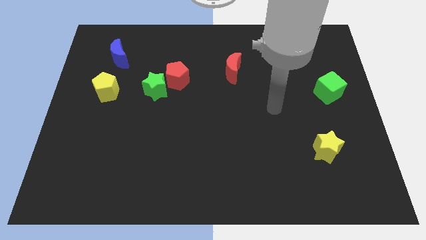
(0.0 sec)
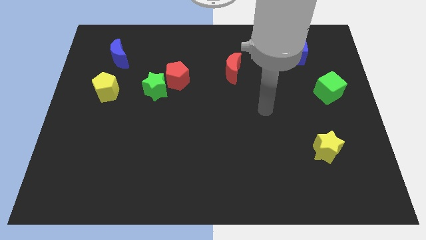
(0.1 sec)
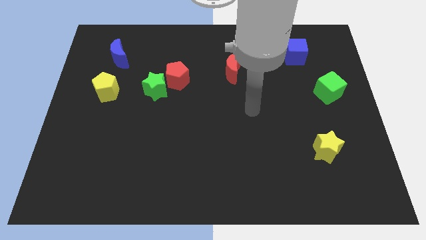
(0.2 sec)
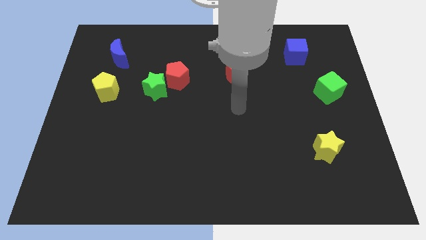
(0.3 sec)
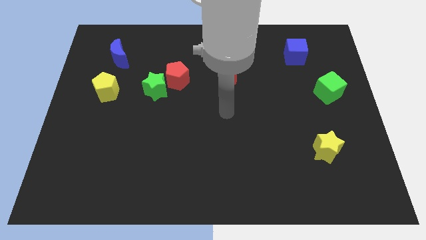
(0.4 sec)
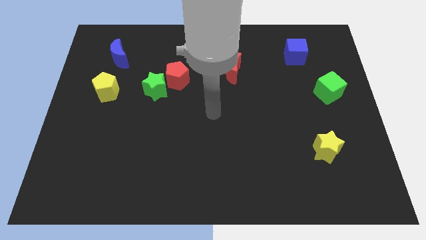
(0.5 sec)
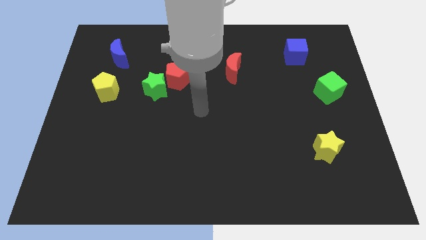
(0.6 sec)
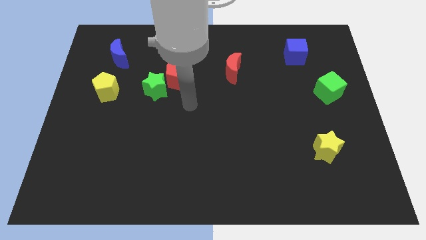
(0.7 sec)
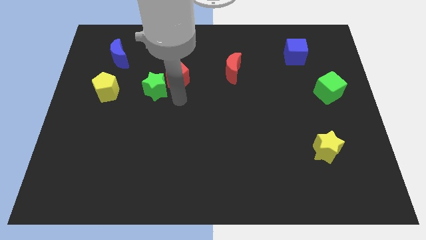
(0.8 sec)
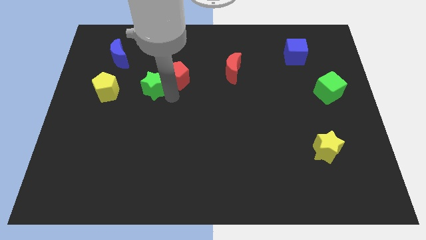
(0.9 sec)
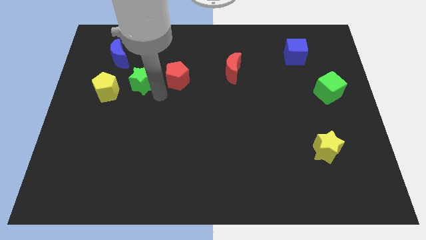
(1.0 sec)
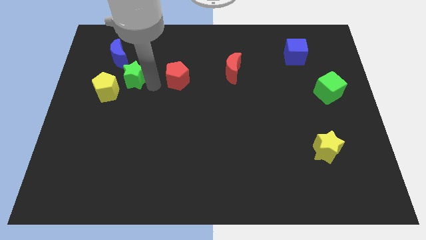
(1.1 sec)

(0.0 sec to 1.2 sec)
separate the red pentagon from the green star

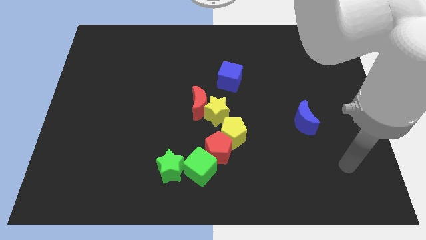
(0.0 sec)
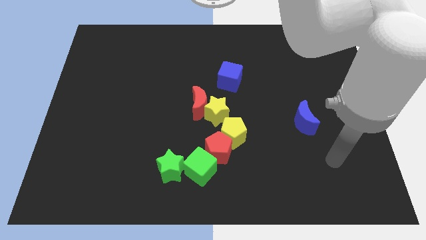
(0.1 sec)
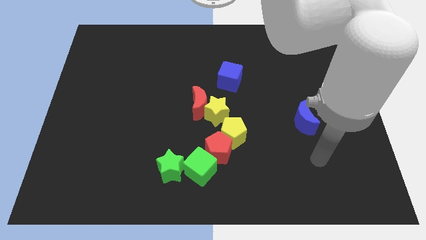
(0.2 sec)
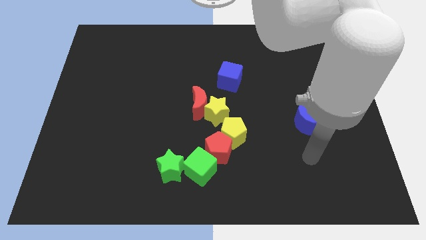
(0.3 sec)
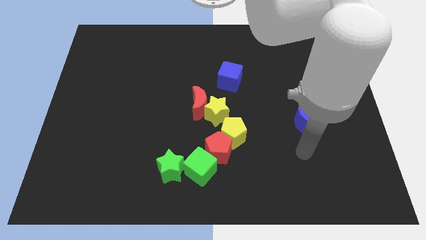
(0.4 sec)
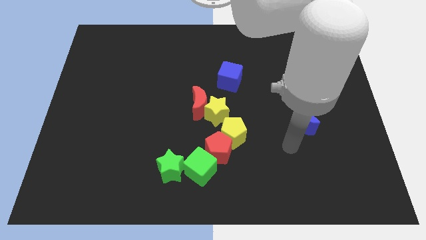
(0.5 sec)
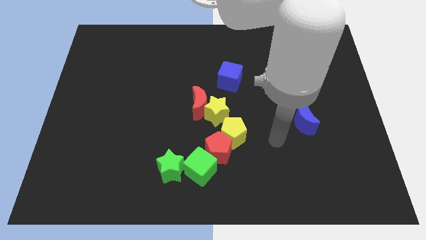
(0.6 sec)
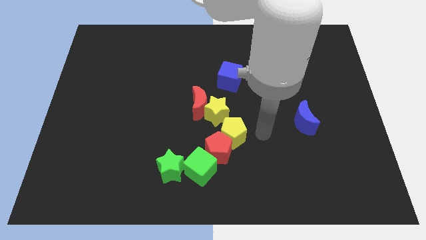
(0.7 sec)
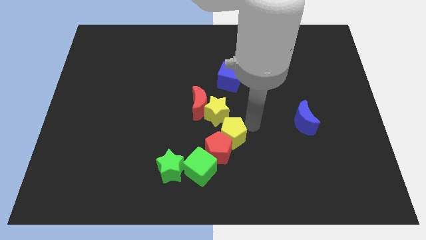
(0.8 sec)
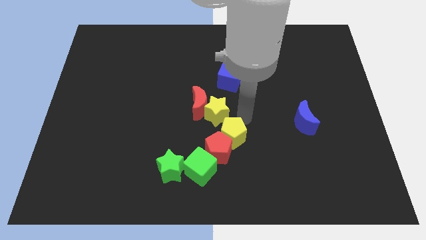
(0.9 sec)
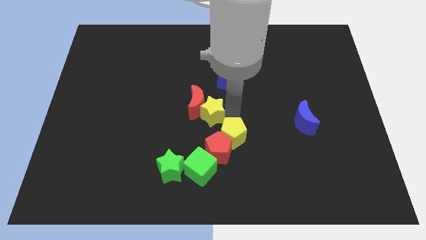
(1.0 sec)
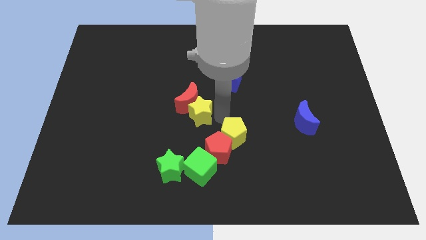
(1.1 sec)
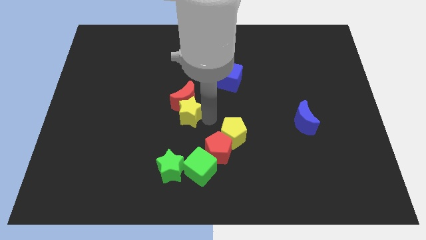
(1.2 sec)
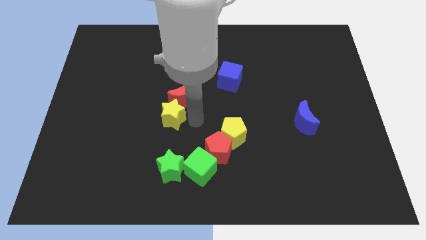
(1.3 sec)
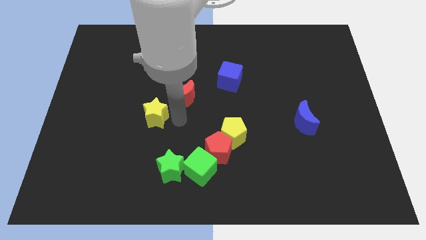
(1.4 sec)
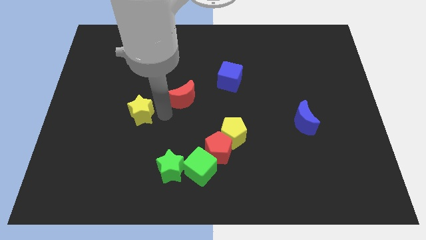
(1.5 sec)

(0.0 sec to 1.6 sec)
separate the red moon from the yellow star

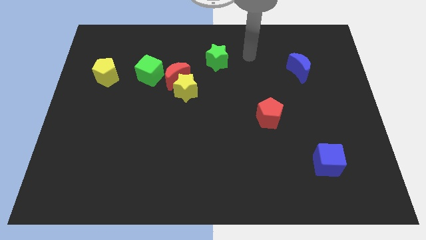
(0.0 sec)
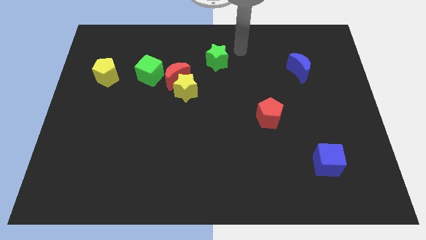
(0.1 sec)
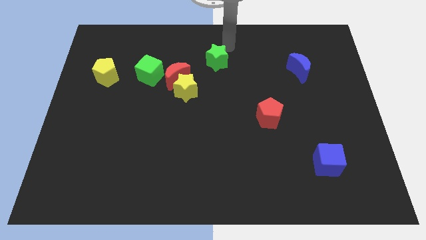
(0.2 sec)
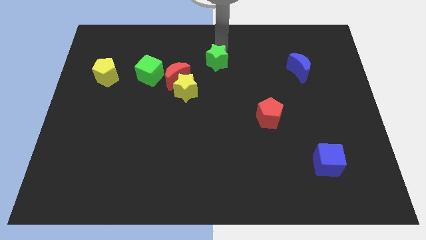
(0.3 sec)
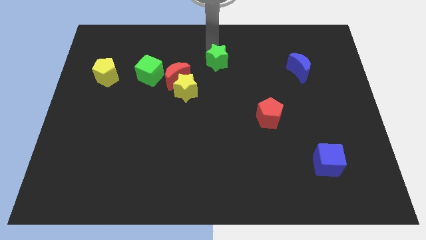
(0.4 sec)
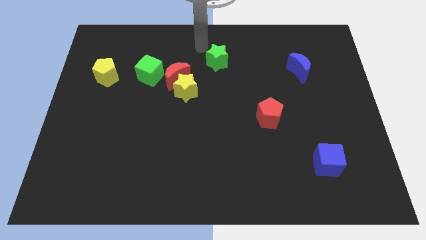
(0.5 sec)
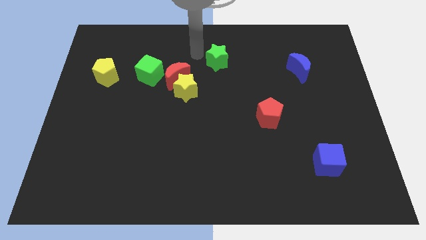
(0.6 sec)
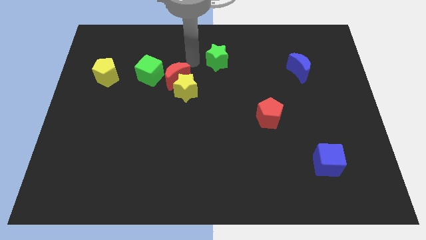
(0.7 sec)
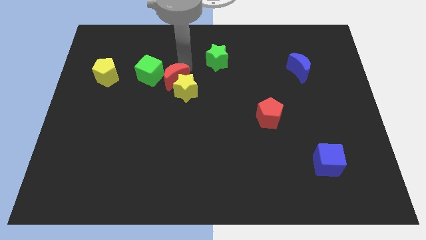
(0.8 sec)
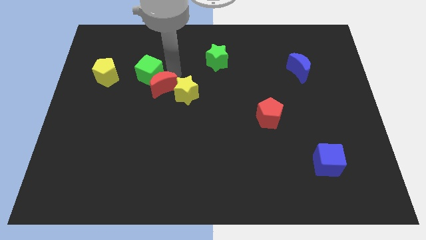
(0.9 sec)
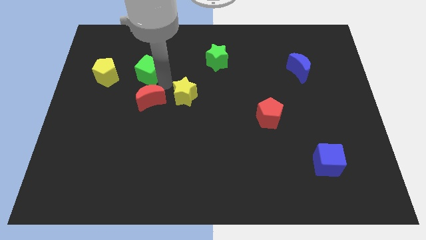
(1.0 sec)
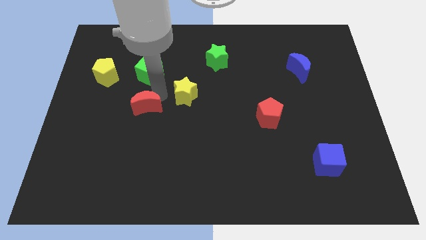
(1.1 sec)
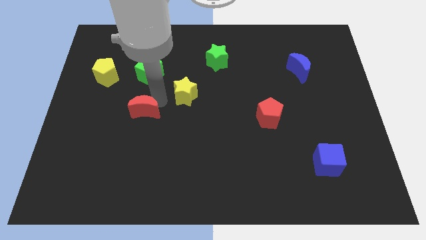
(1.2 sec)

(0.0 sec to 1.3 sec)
separate the yellow star from the red moon

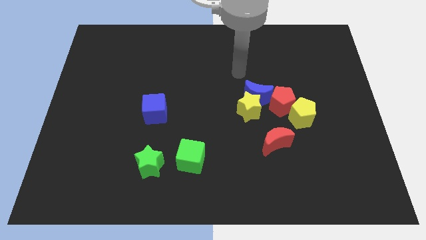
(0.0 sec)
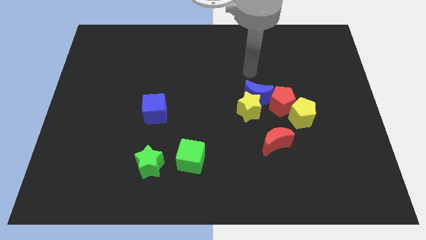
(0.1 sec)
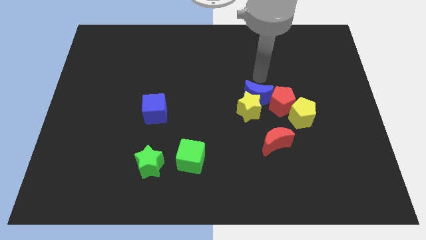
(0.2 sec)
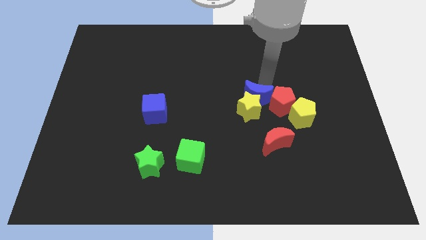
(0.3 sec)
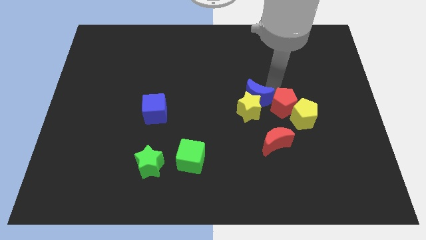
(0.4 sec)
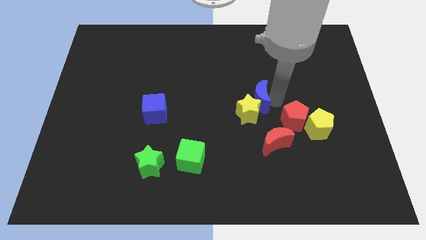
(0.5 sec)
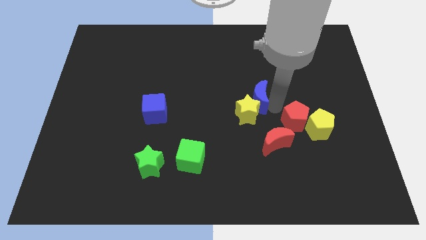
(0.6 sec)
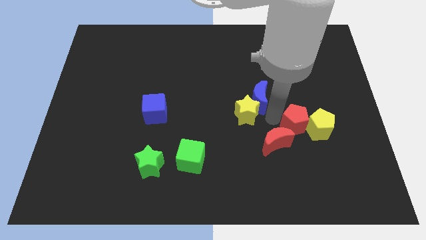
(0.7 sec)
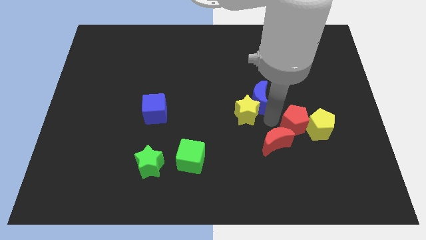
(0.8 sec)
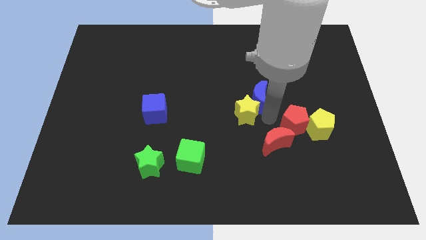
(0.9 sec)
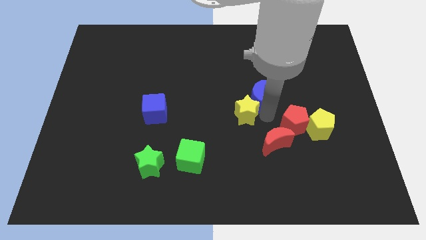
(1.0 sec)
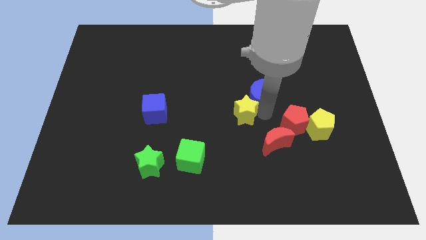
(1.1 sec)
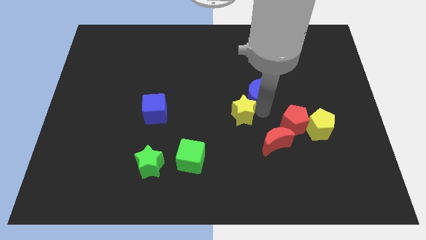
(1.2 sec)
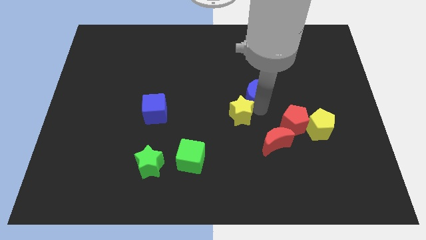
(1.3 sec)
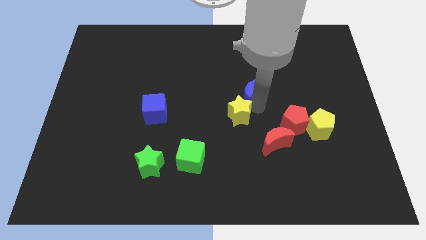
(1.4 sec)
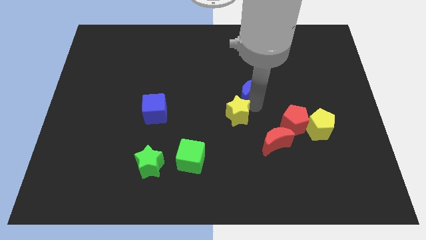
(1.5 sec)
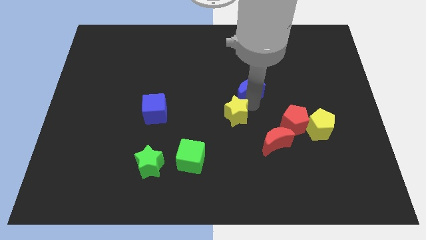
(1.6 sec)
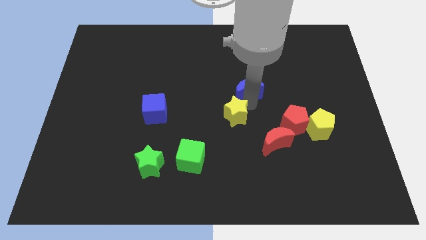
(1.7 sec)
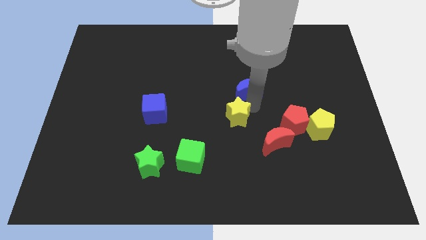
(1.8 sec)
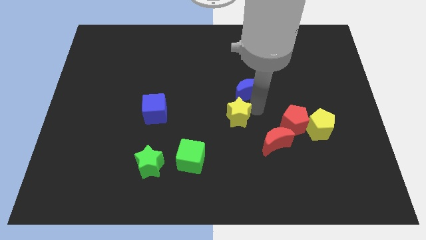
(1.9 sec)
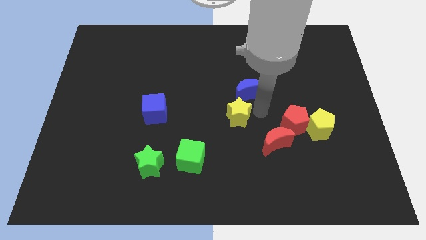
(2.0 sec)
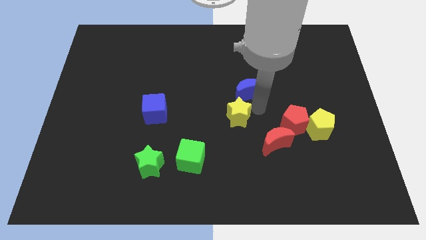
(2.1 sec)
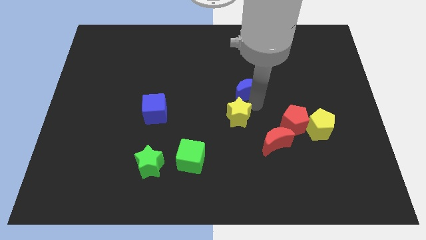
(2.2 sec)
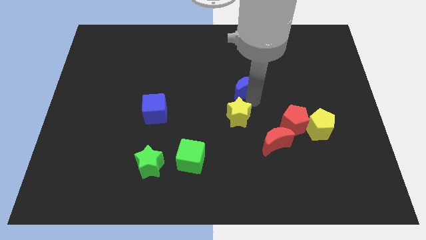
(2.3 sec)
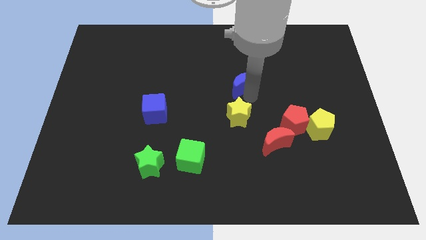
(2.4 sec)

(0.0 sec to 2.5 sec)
separate the blue moon from the yellow star and red pentagon

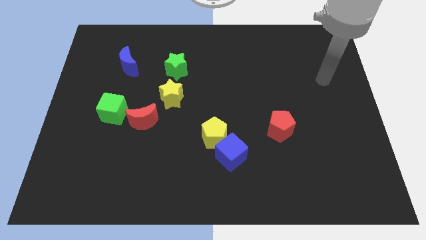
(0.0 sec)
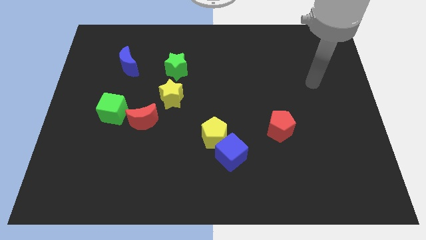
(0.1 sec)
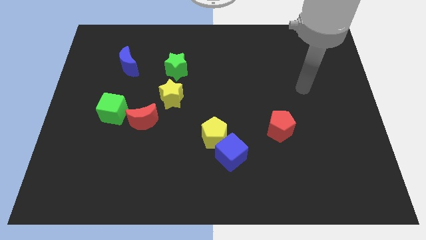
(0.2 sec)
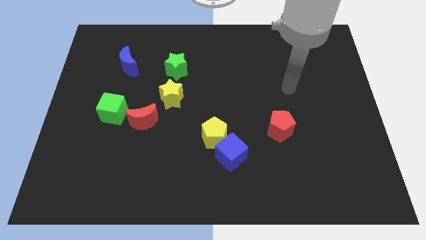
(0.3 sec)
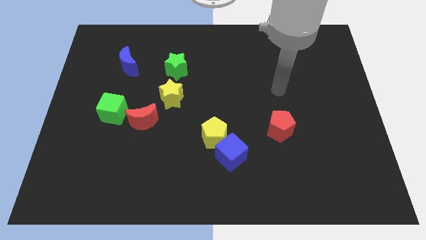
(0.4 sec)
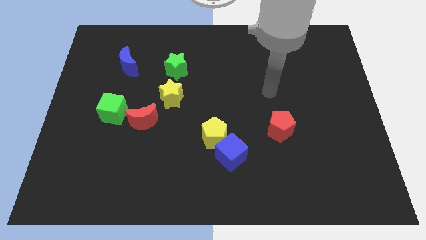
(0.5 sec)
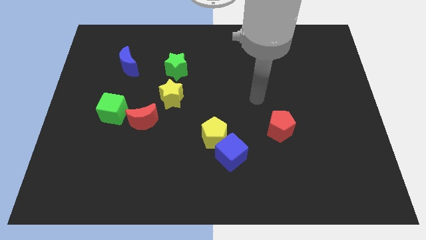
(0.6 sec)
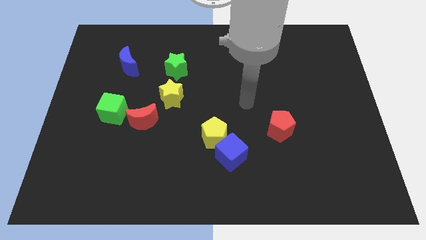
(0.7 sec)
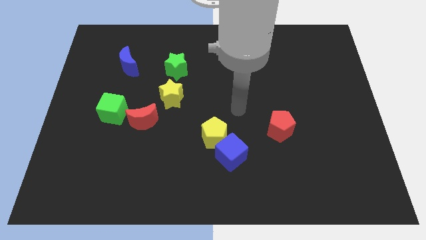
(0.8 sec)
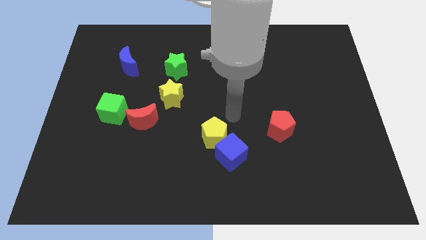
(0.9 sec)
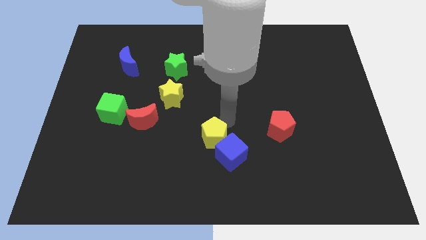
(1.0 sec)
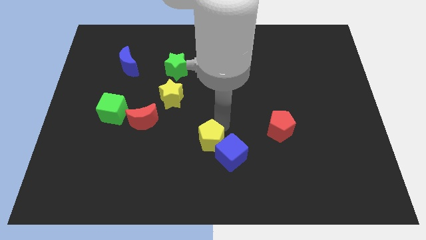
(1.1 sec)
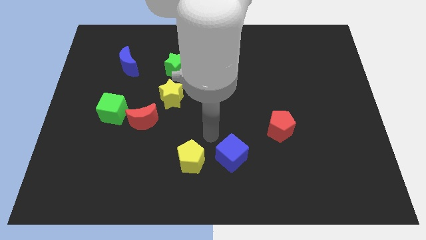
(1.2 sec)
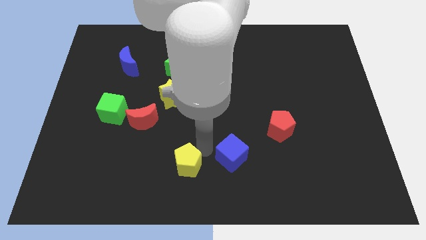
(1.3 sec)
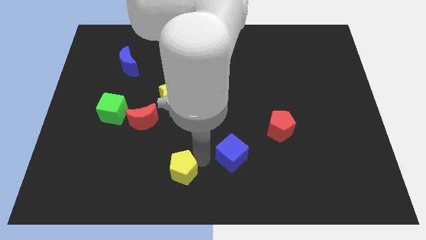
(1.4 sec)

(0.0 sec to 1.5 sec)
separate the blue cube from the yellow pentagon

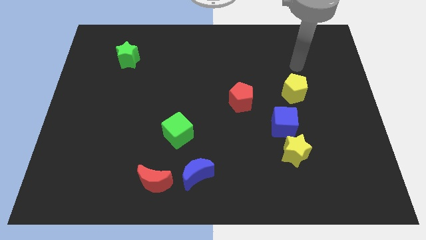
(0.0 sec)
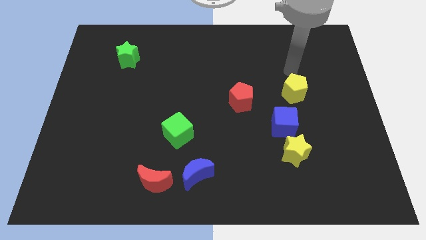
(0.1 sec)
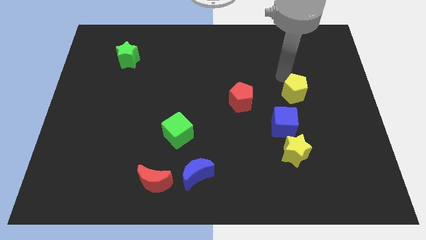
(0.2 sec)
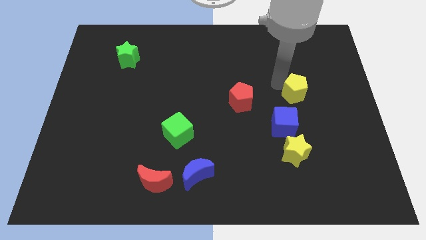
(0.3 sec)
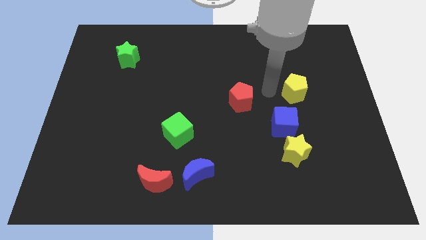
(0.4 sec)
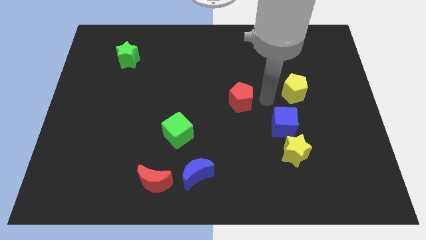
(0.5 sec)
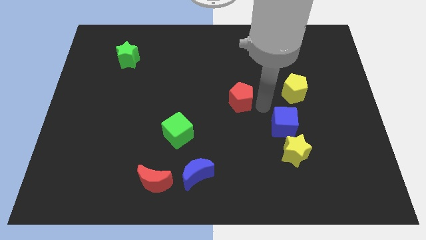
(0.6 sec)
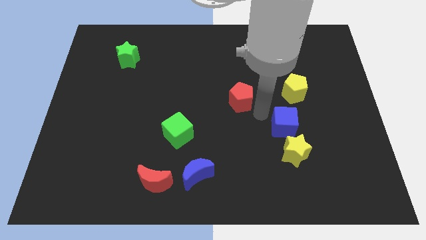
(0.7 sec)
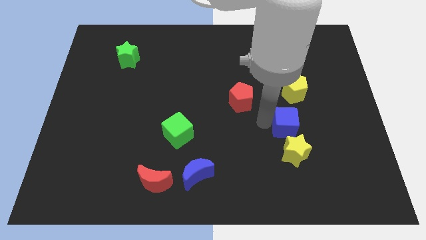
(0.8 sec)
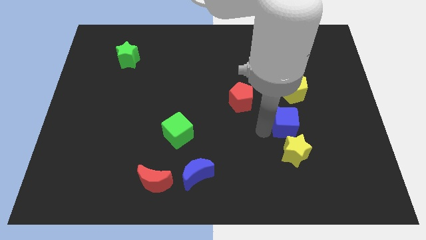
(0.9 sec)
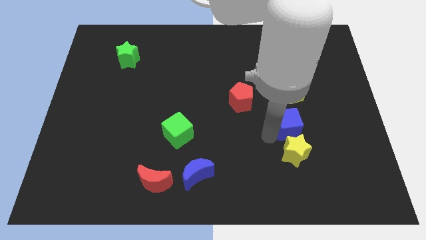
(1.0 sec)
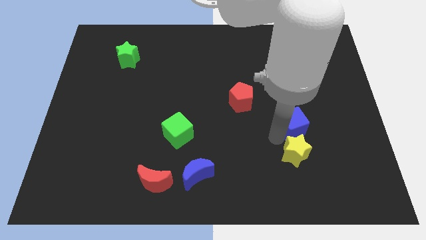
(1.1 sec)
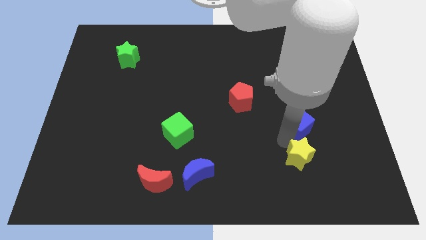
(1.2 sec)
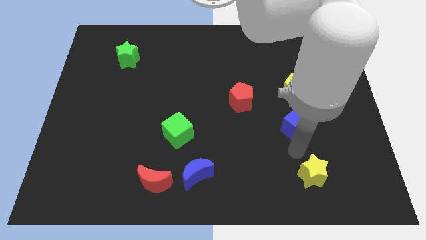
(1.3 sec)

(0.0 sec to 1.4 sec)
pull the blue cube apart from the yellow star
